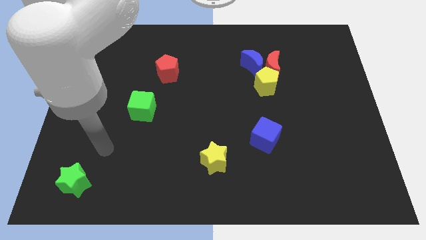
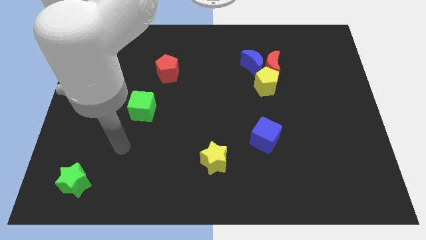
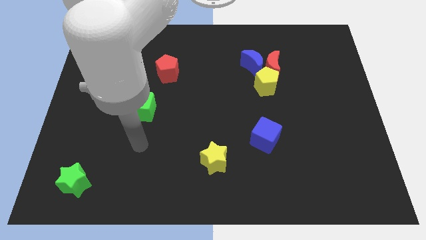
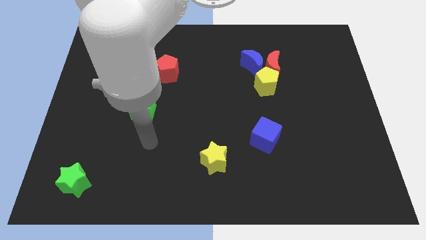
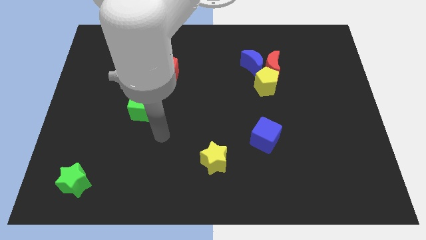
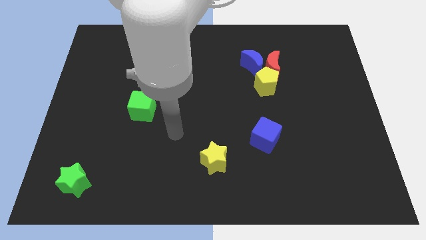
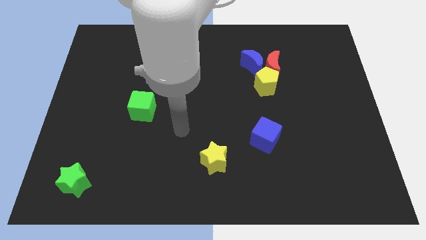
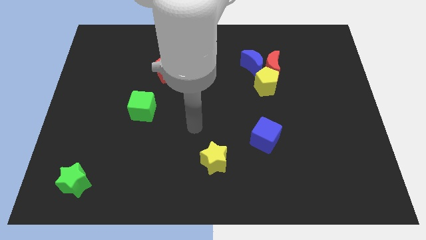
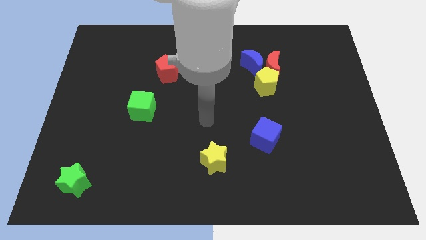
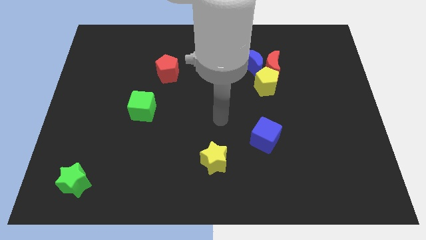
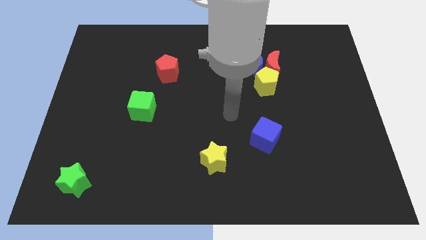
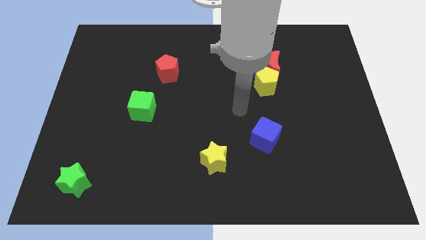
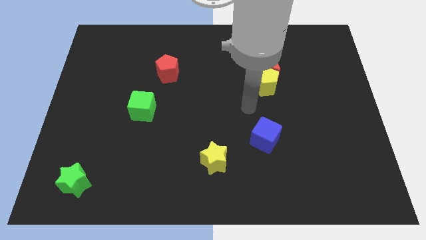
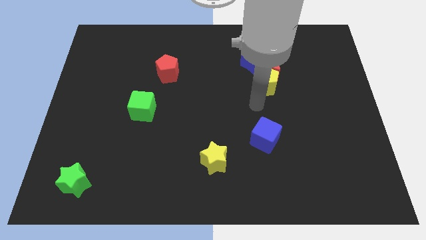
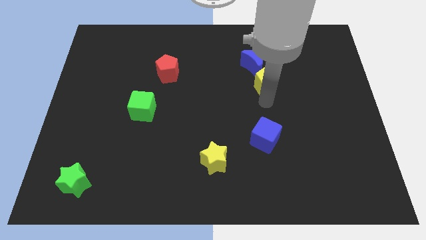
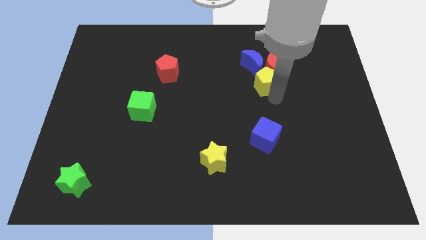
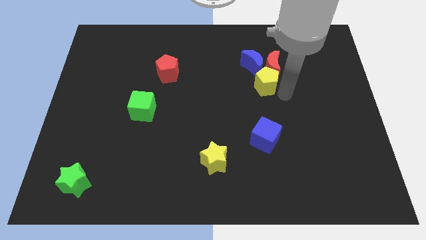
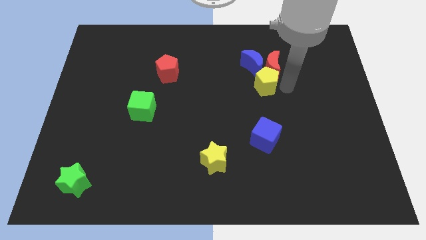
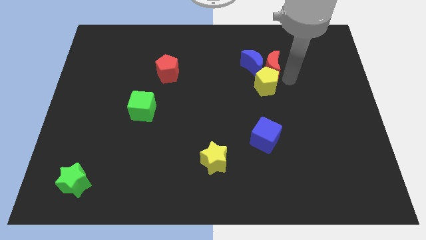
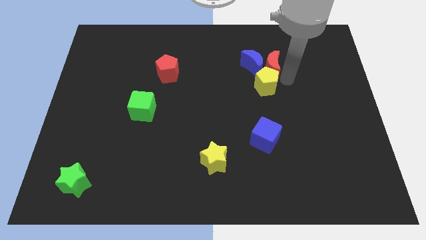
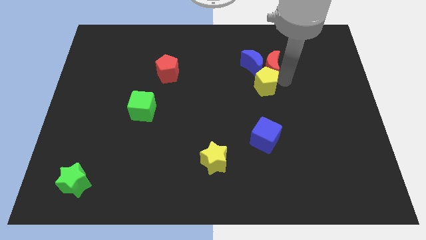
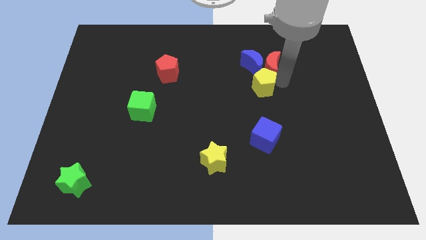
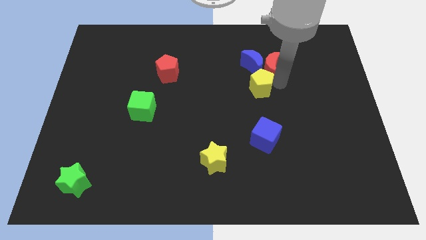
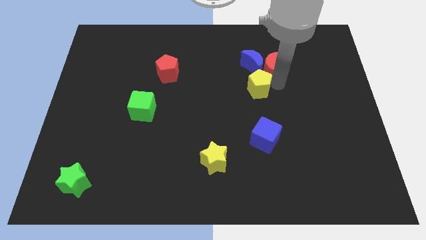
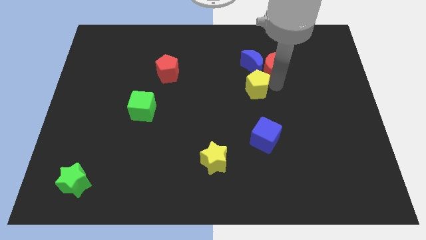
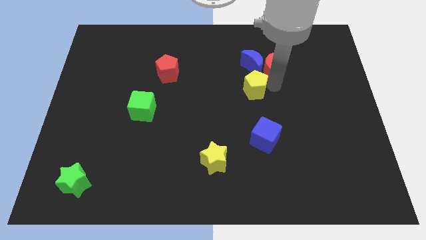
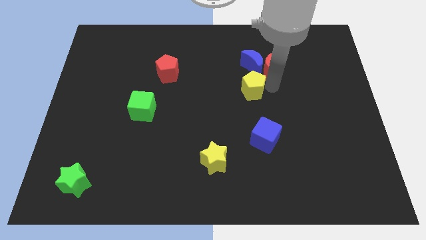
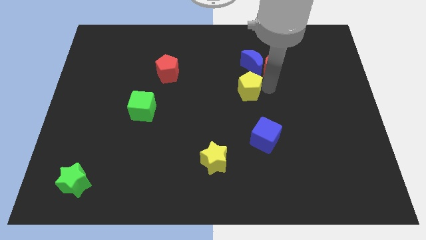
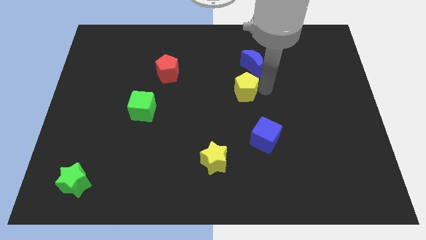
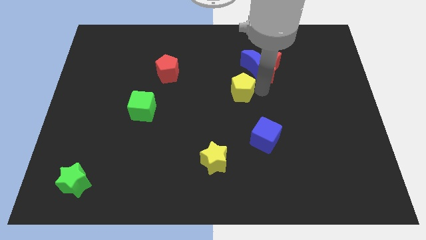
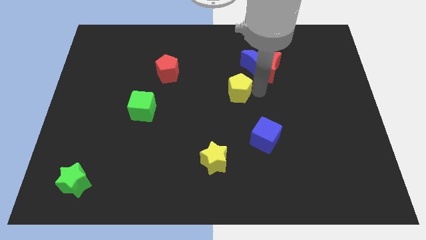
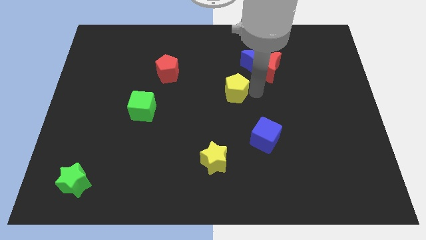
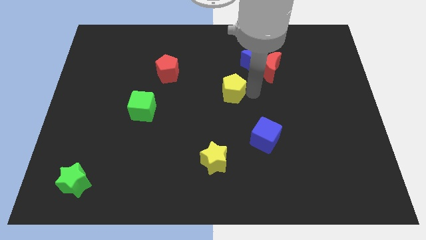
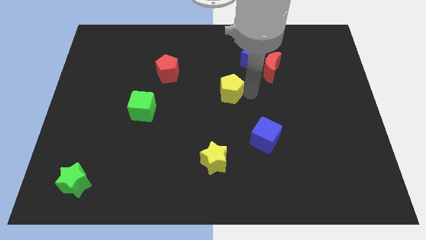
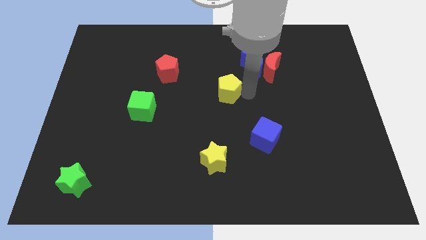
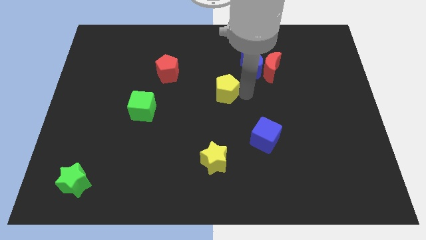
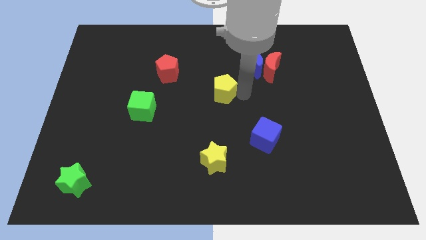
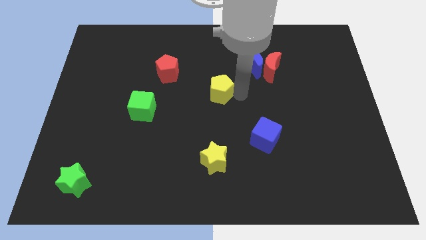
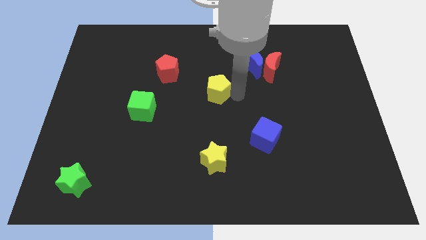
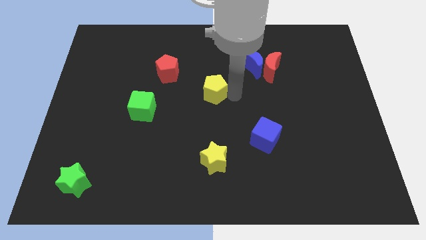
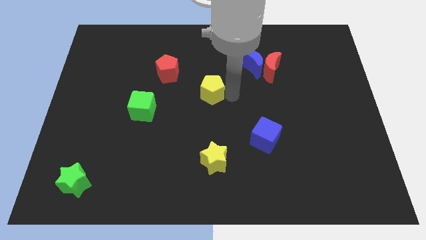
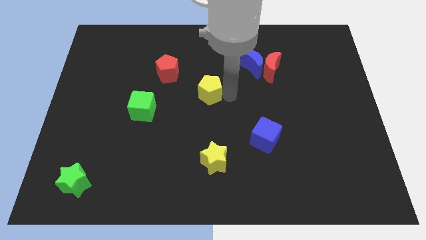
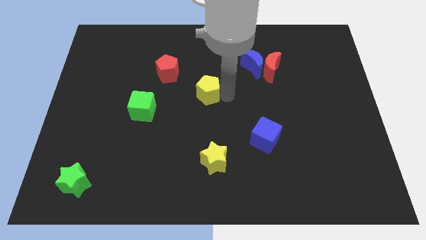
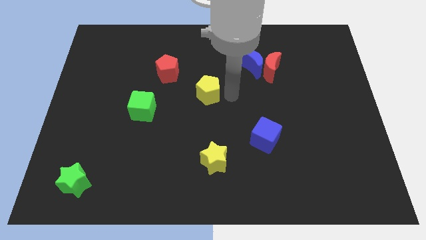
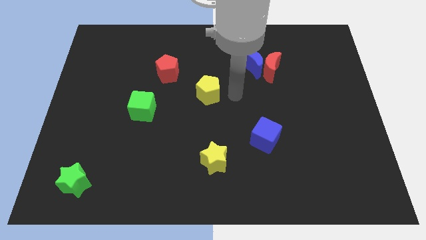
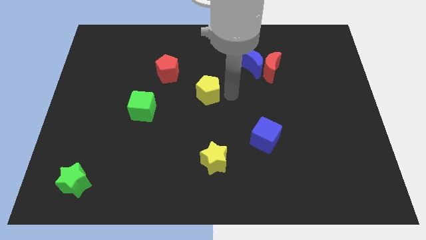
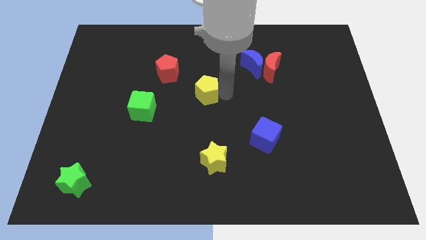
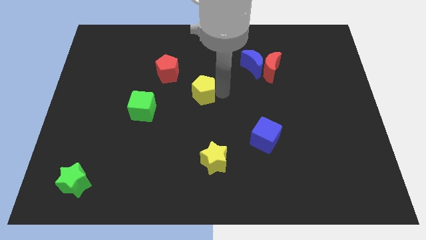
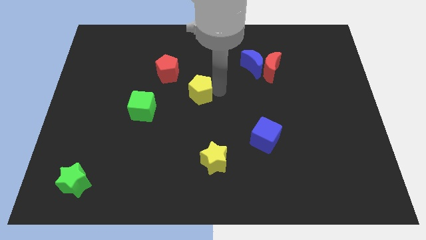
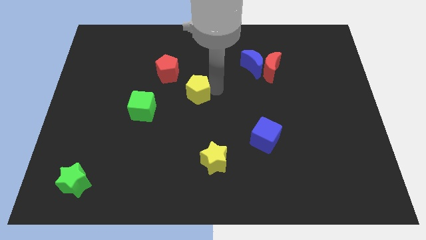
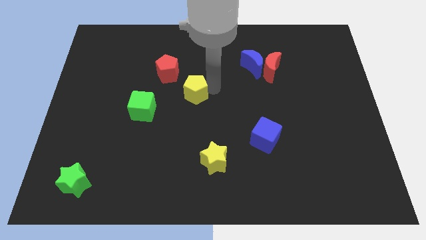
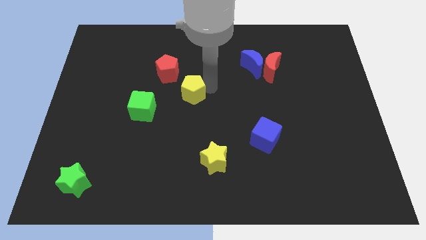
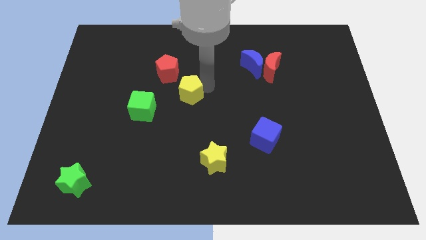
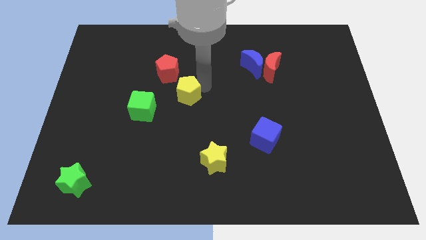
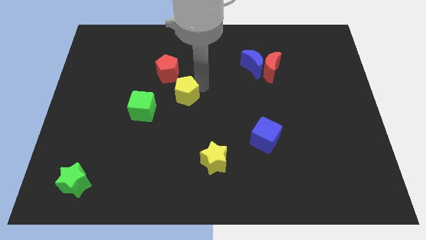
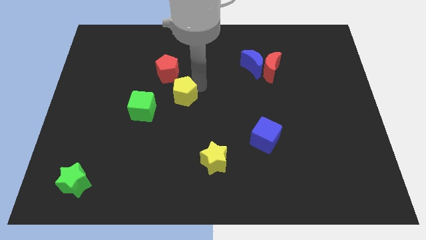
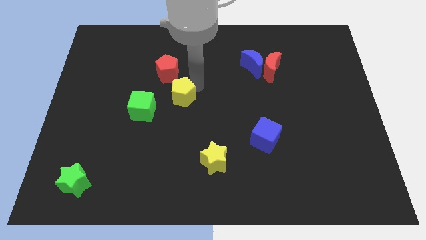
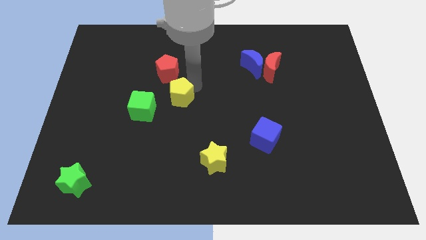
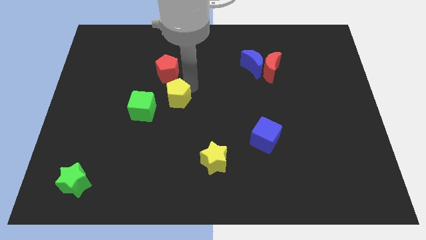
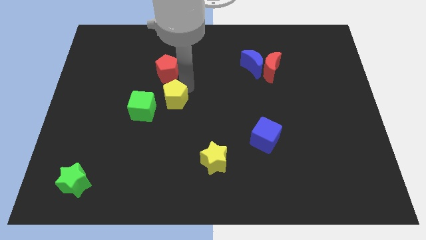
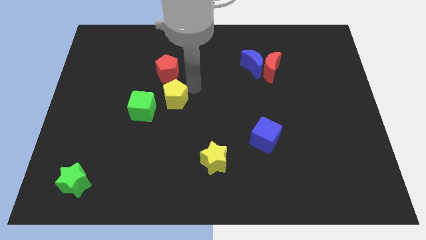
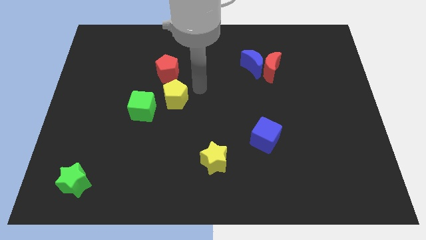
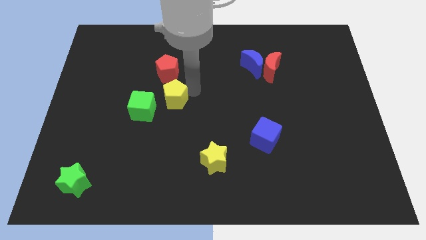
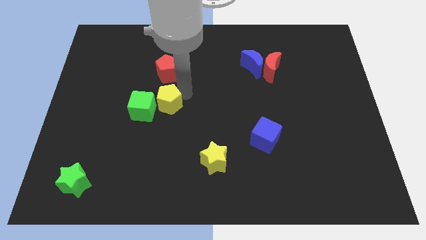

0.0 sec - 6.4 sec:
push the yellow pentagon towards the green cube

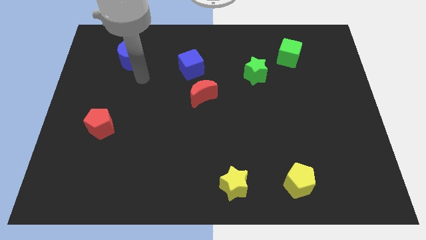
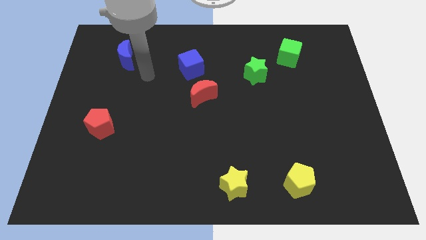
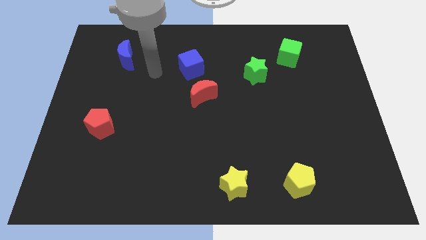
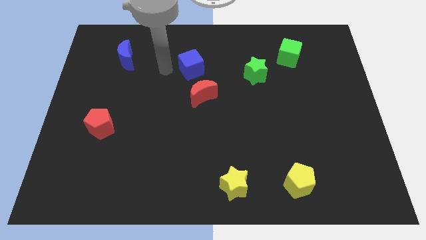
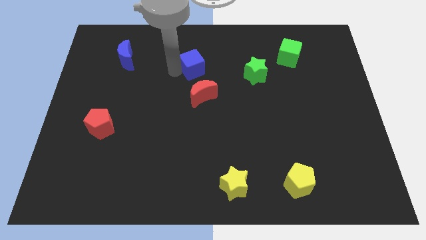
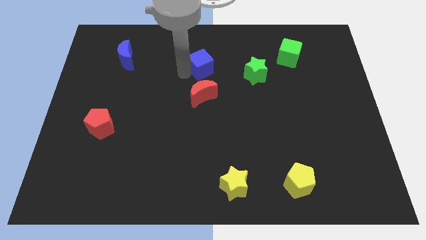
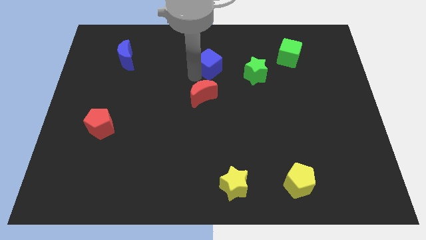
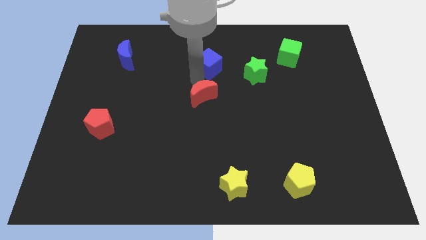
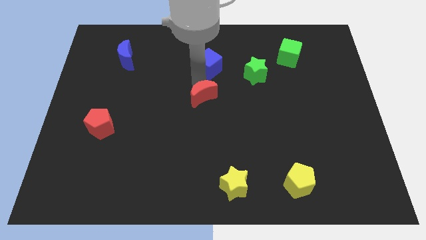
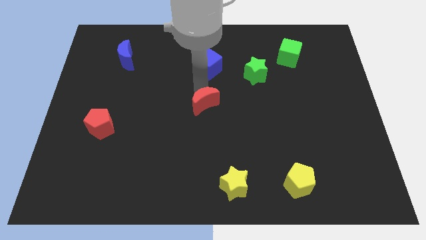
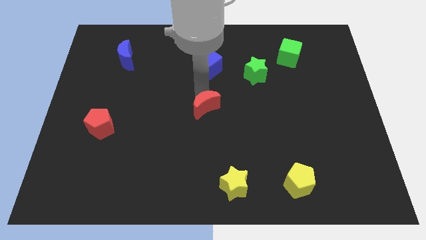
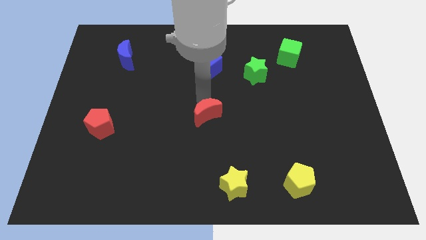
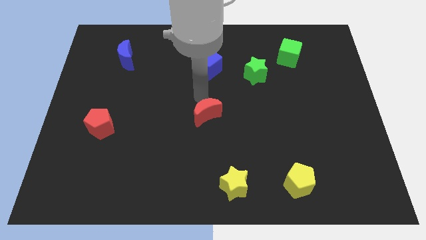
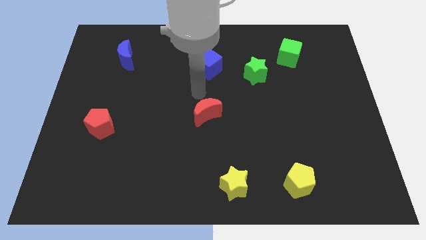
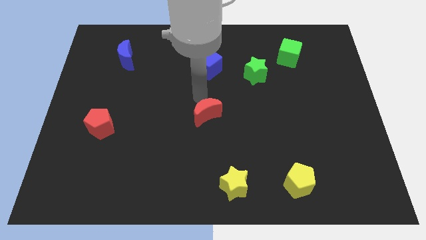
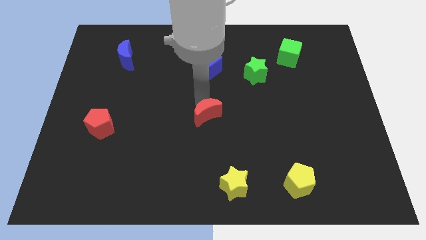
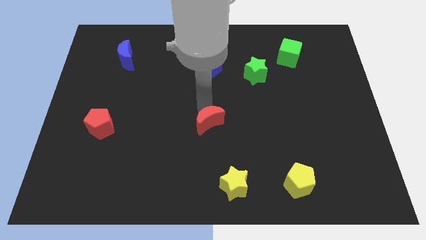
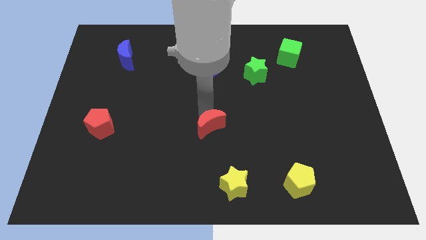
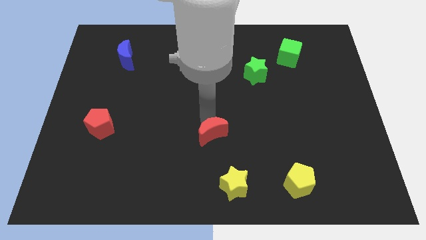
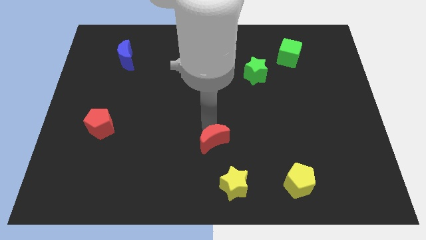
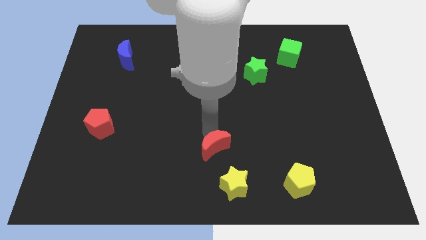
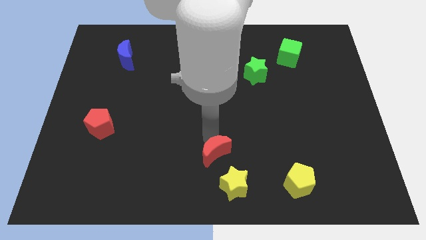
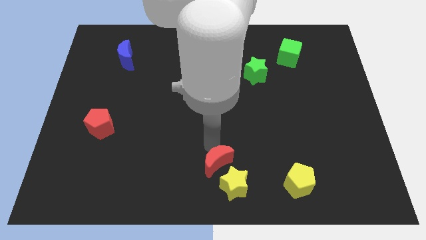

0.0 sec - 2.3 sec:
move the red moon next to the yellow star
